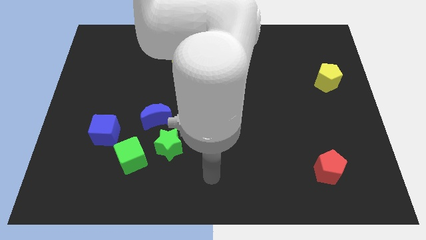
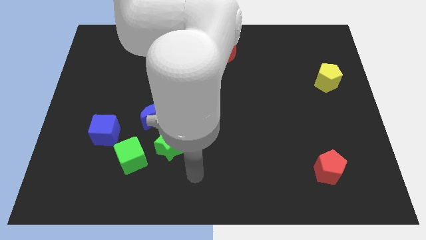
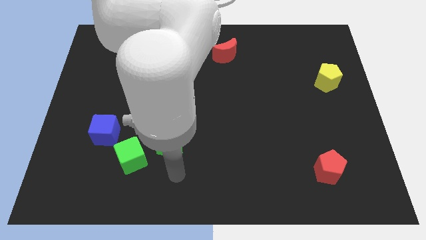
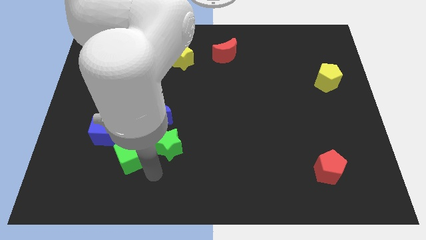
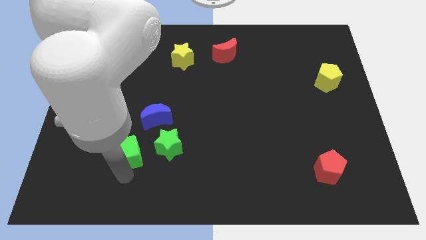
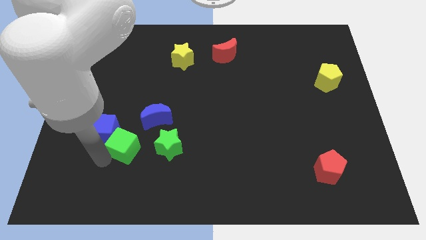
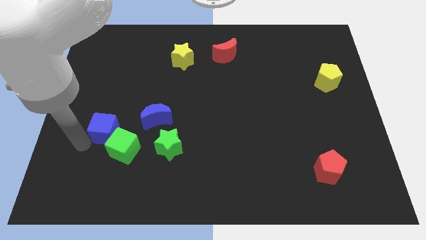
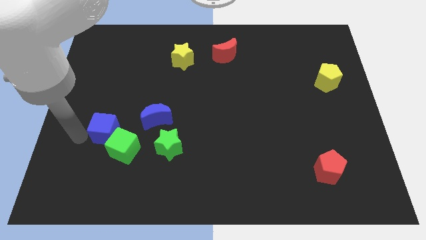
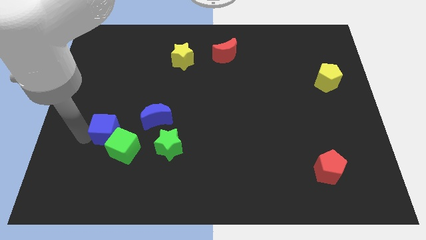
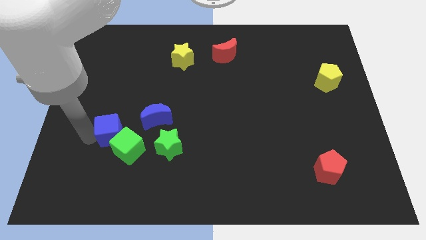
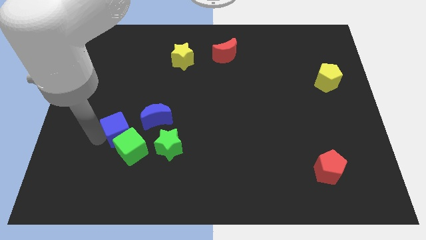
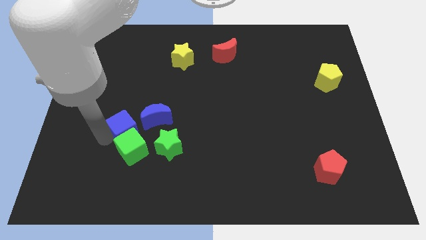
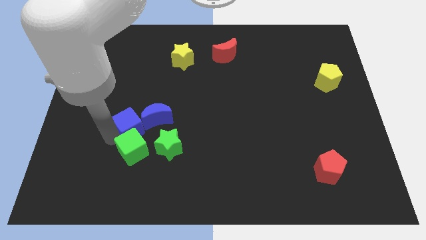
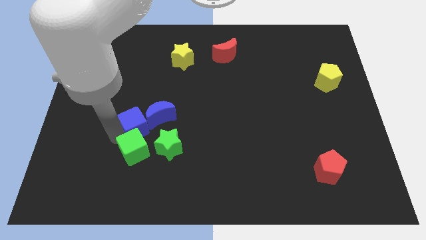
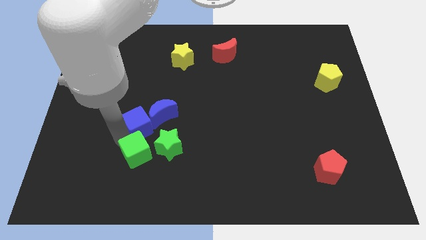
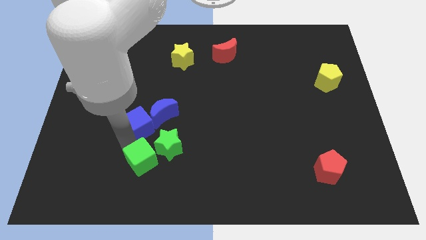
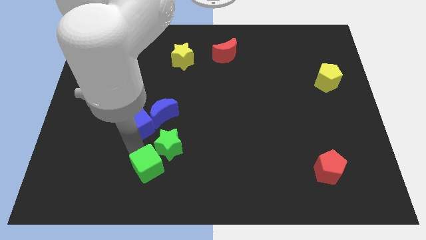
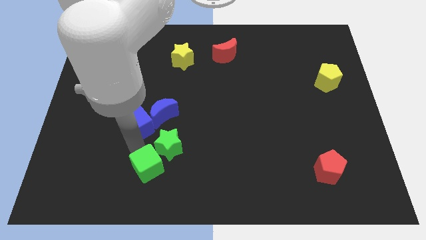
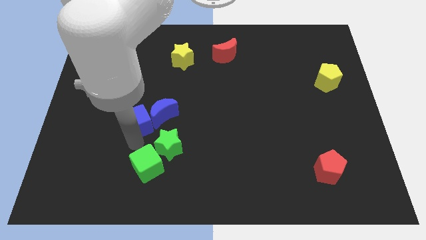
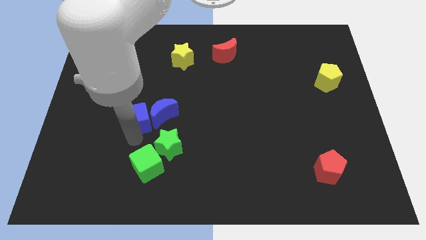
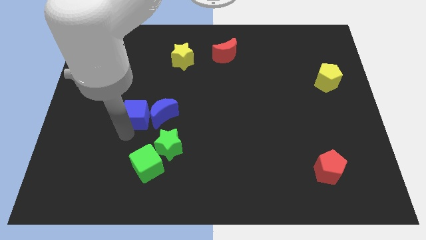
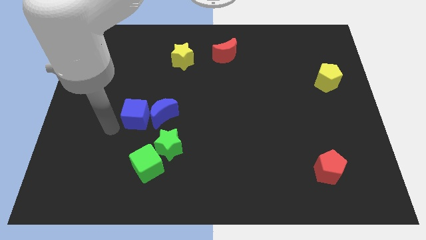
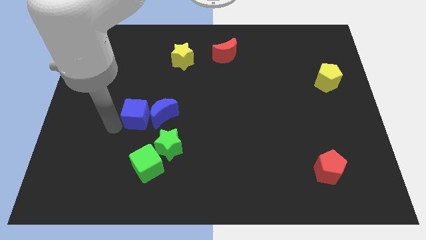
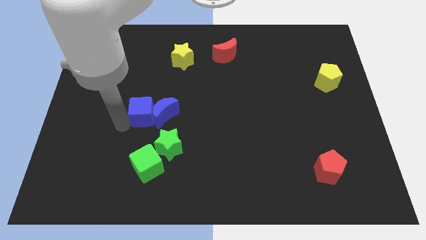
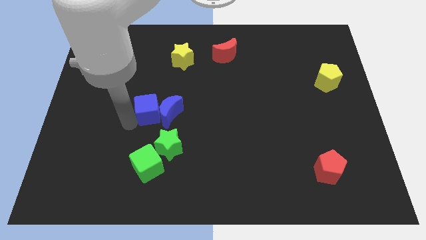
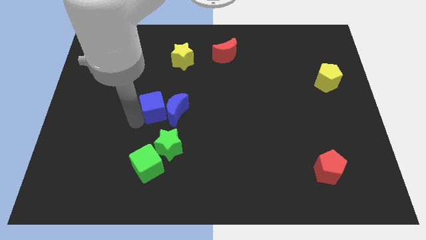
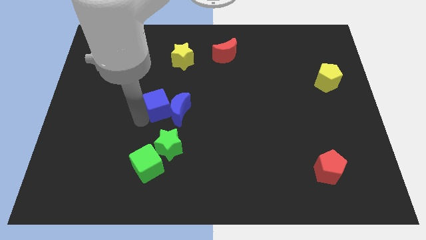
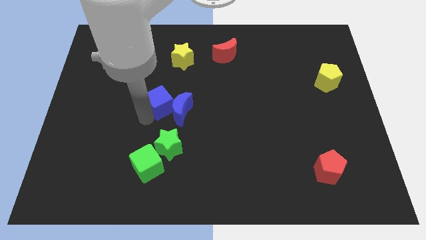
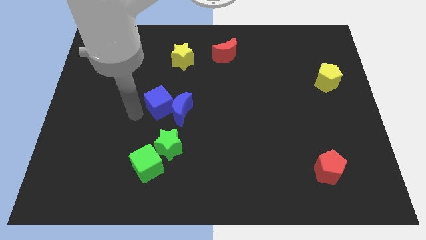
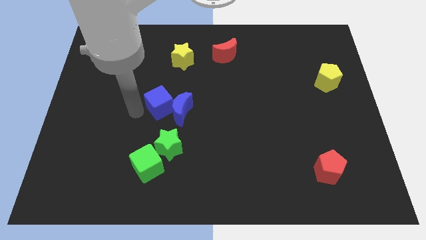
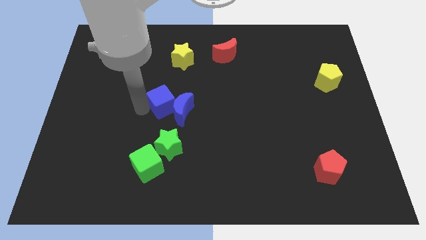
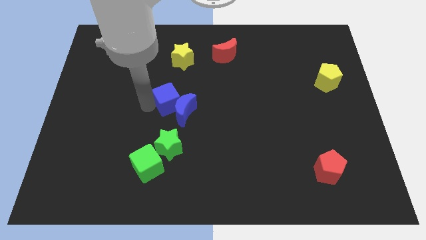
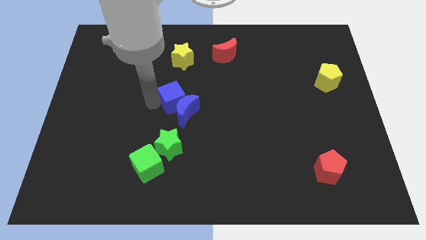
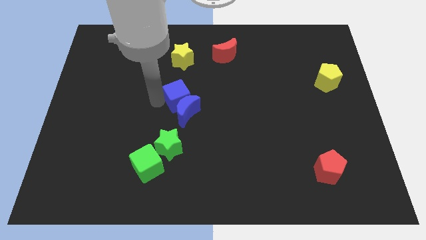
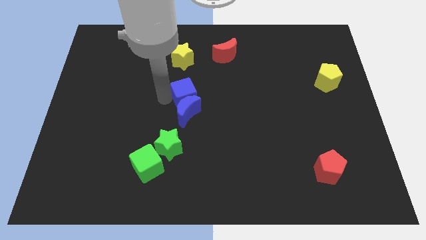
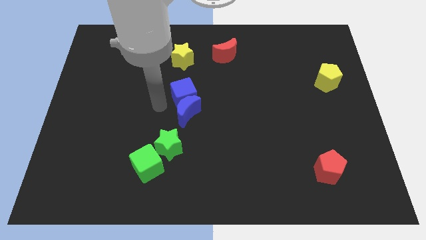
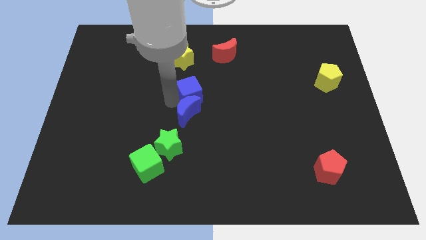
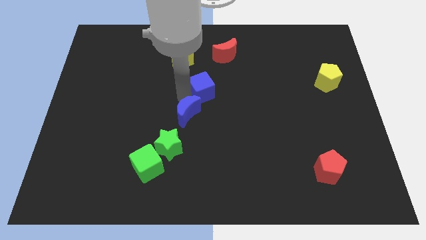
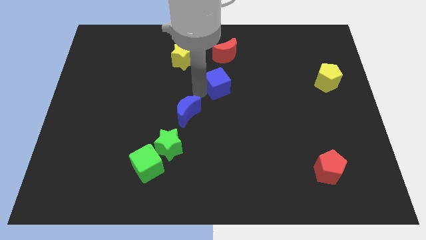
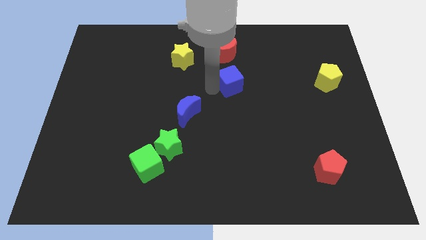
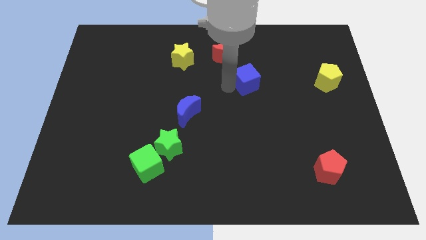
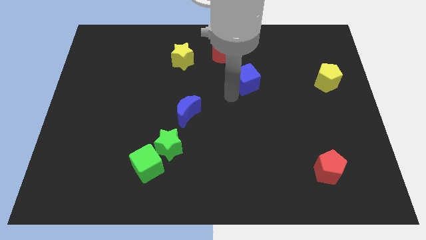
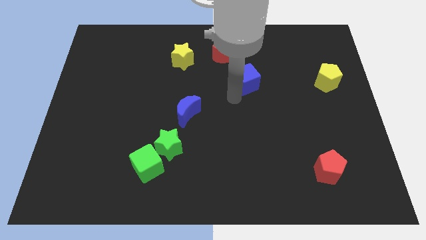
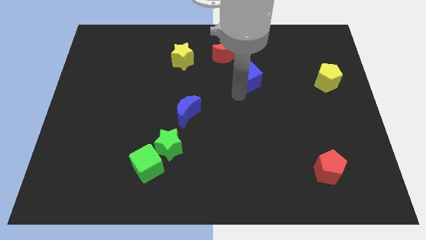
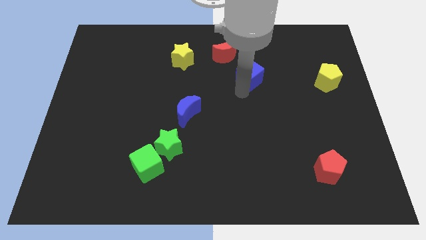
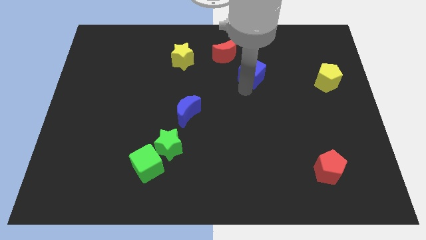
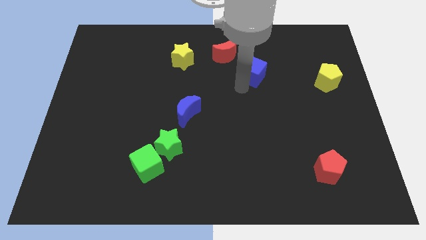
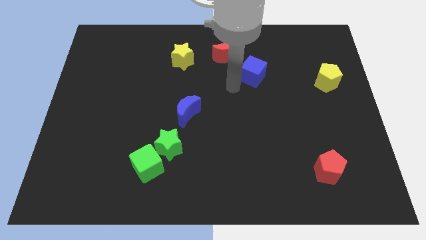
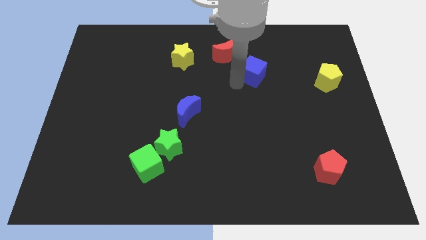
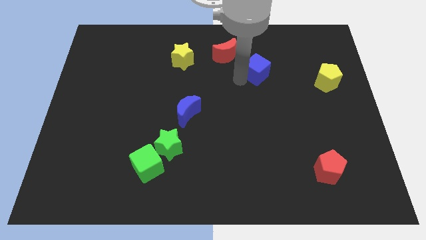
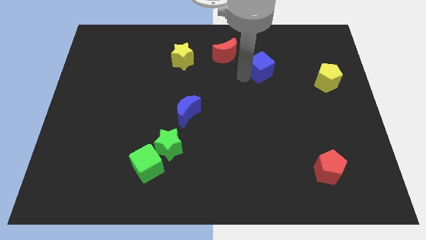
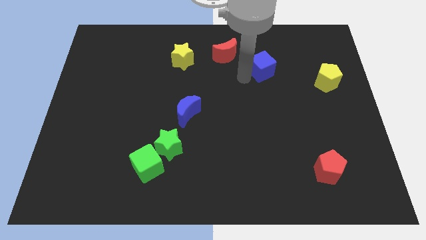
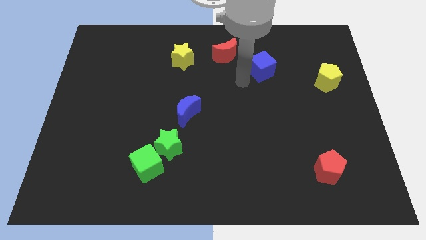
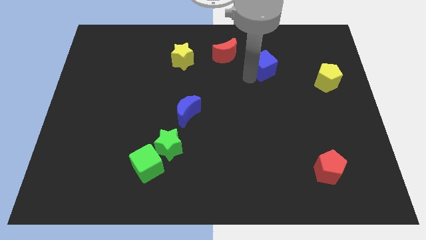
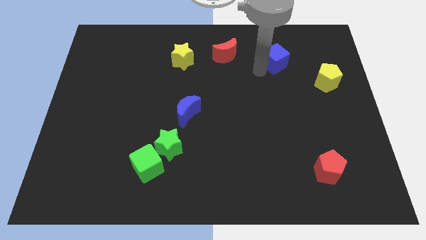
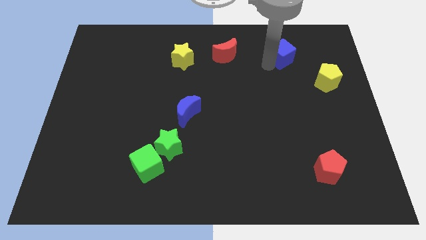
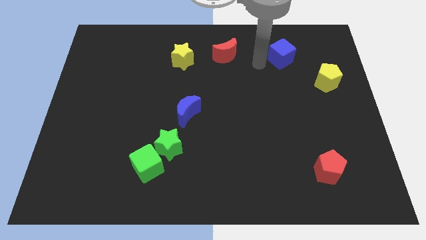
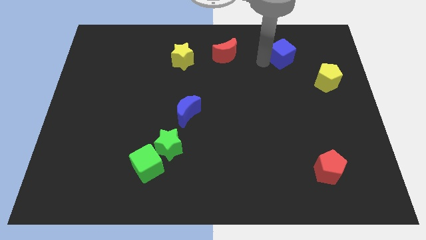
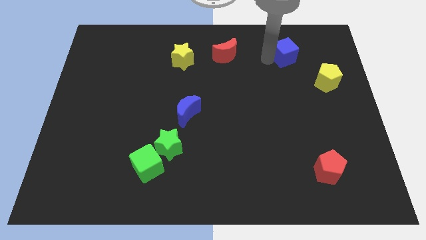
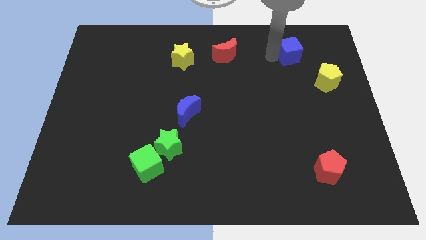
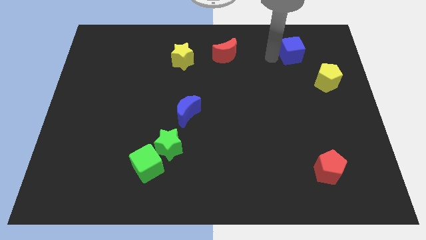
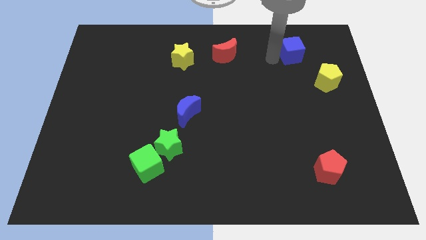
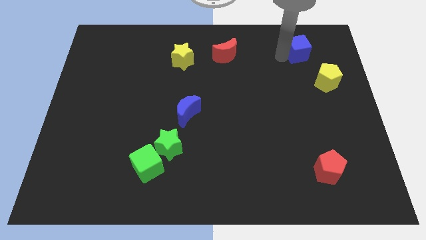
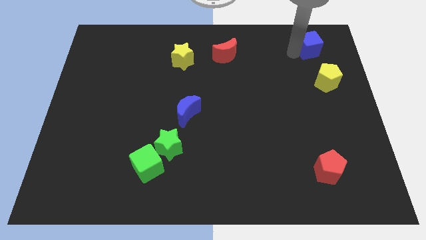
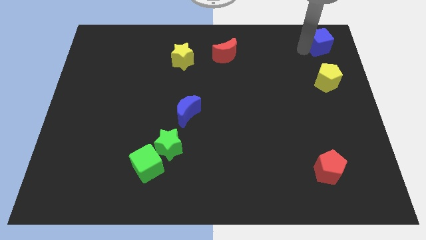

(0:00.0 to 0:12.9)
move the blue cube to the upper right corner

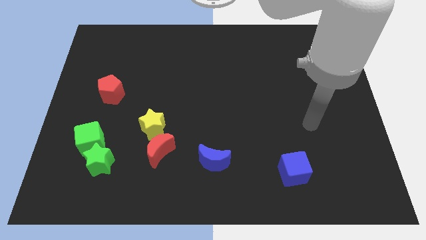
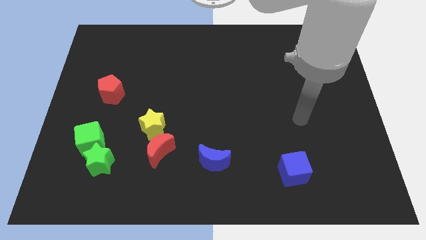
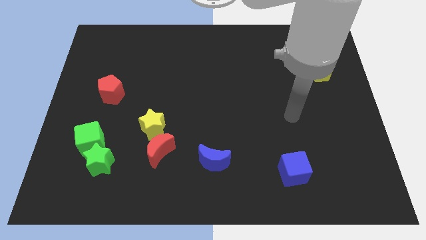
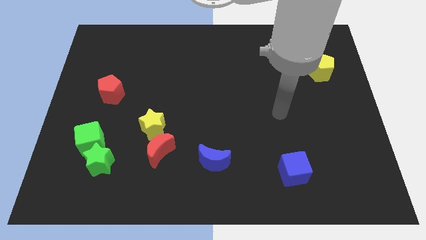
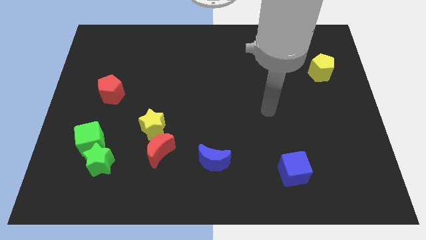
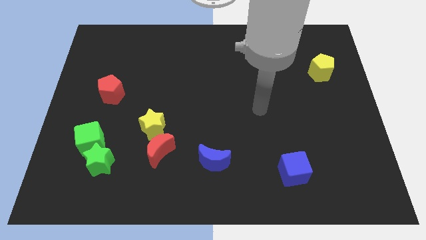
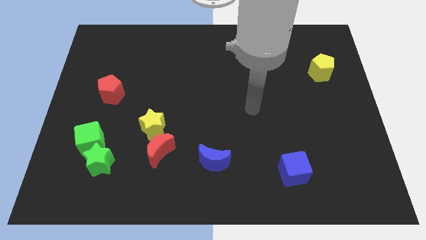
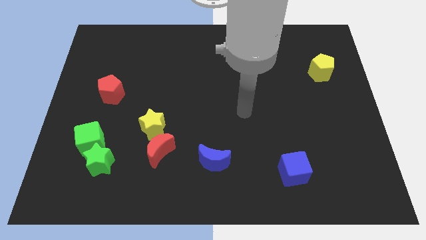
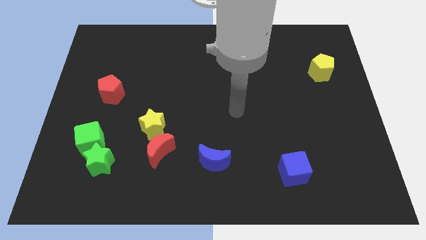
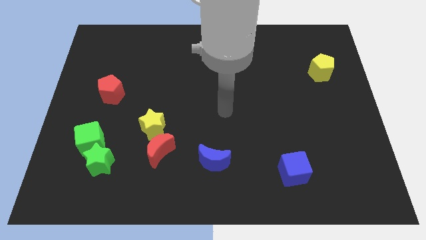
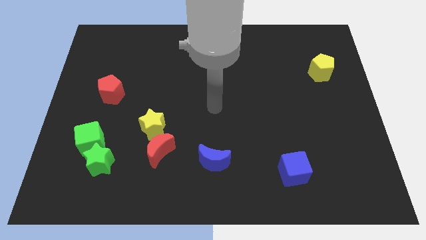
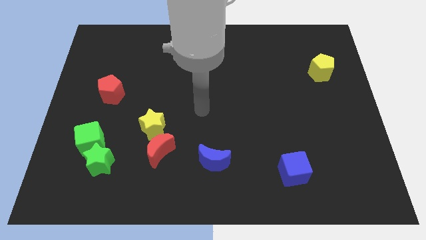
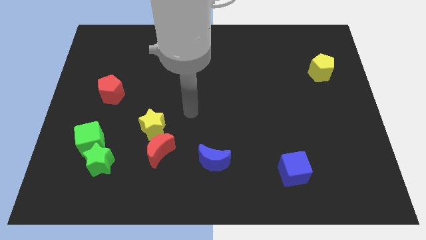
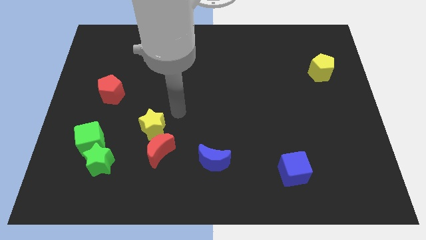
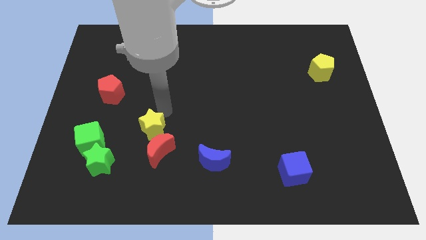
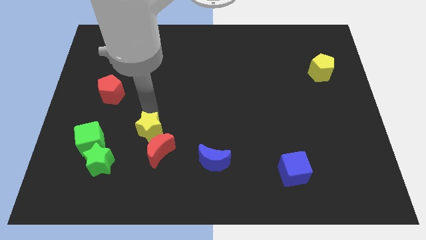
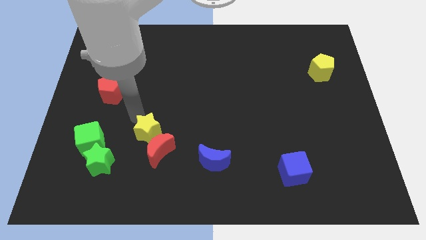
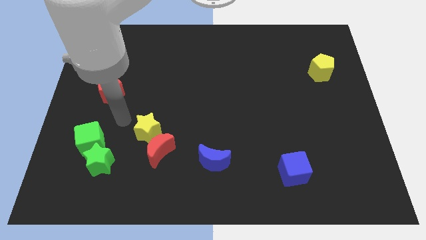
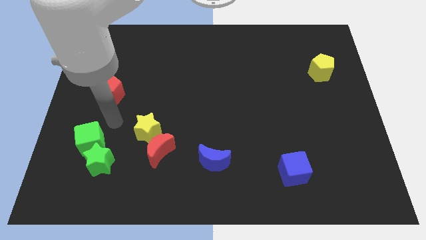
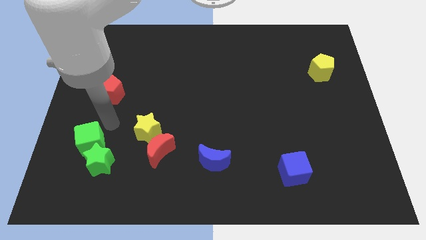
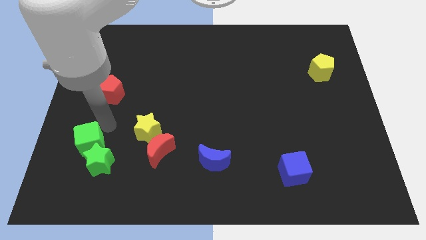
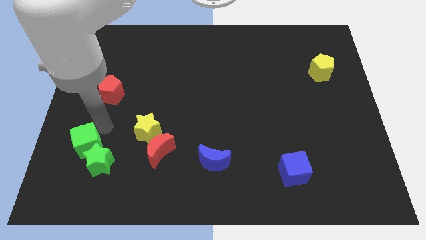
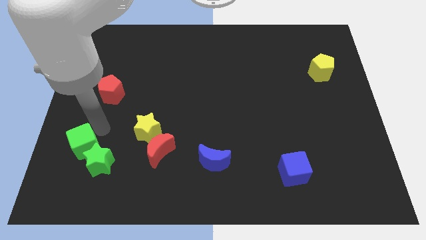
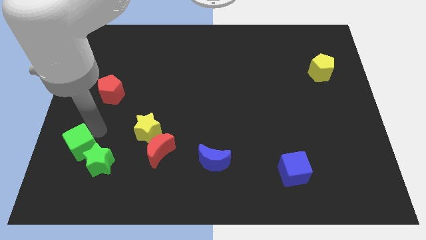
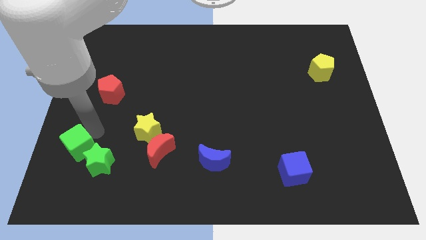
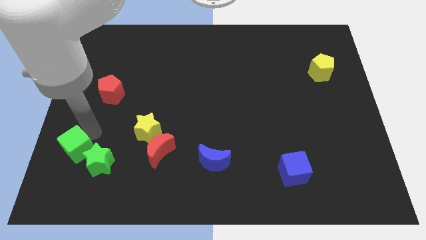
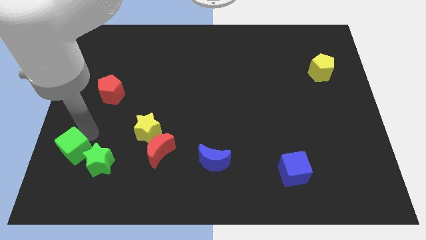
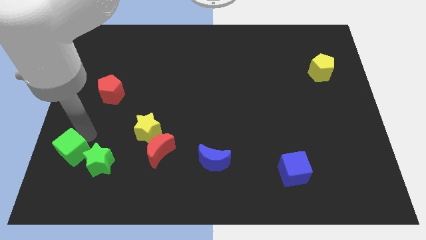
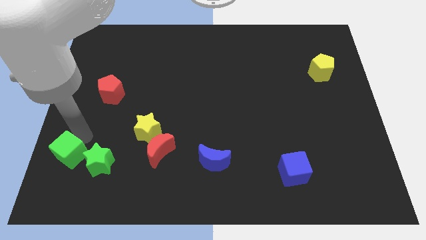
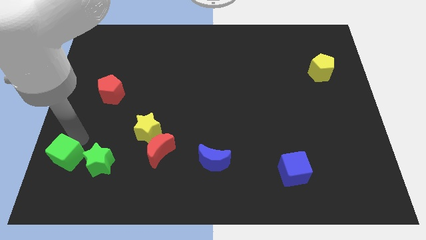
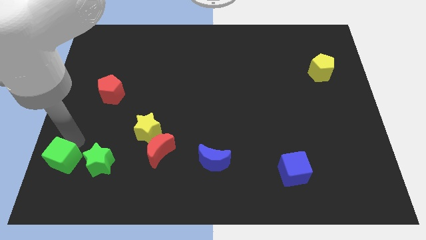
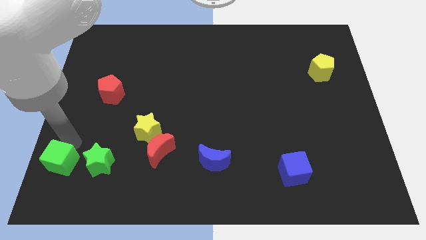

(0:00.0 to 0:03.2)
put the green cube to the bottom left corner
